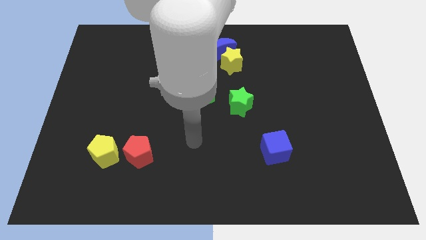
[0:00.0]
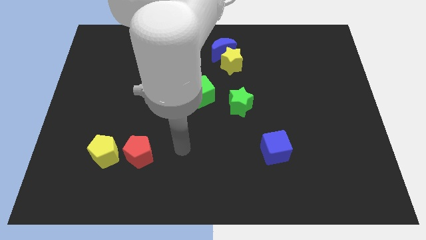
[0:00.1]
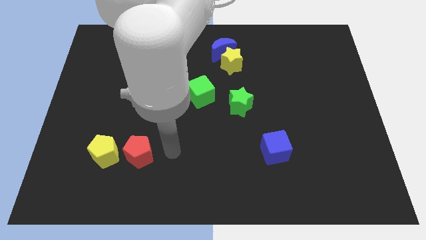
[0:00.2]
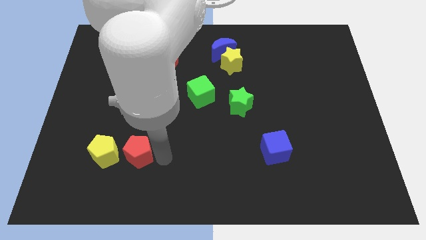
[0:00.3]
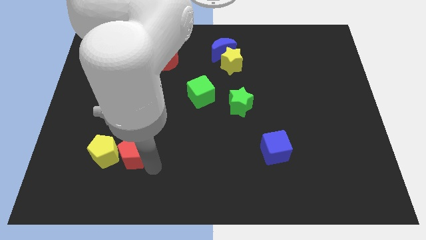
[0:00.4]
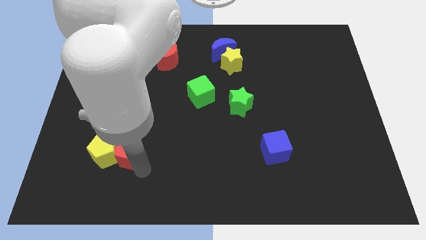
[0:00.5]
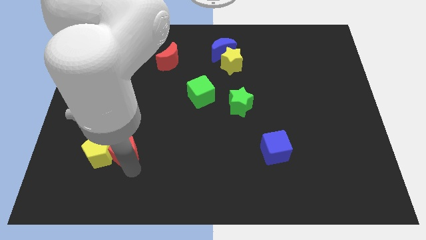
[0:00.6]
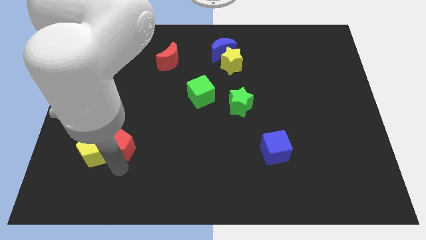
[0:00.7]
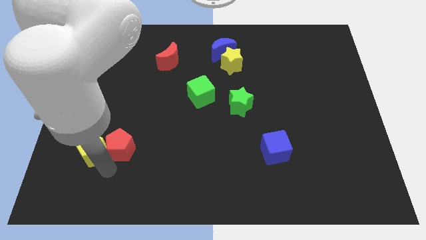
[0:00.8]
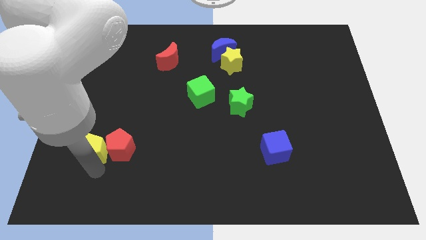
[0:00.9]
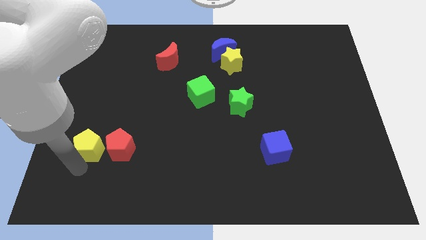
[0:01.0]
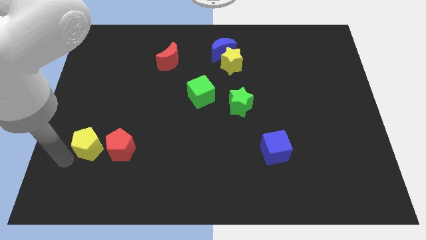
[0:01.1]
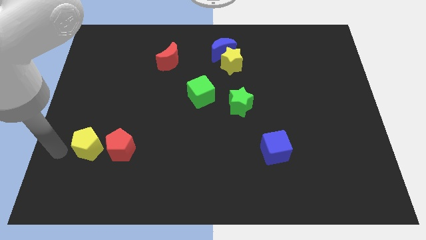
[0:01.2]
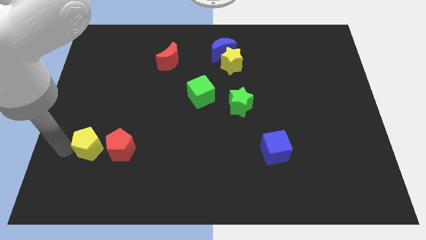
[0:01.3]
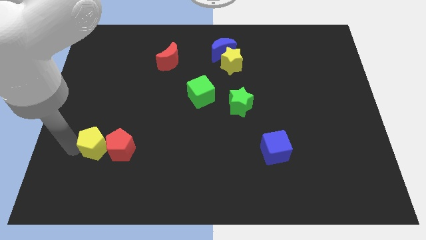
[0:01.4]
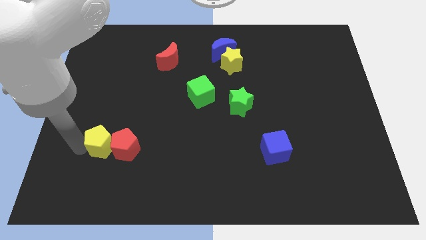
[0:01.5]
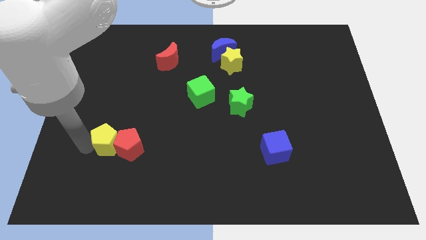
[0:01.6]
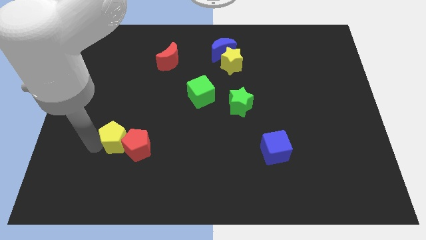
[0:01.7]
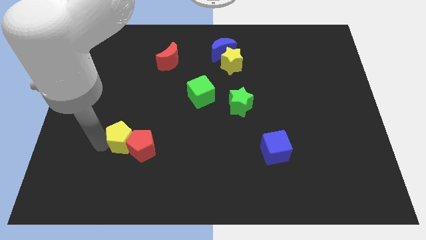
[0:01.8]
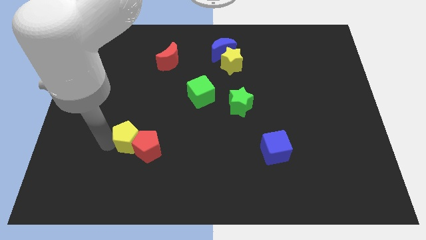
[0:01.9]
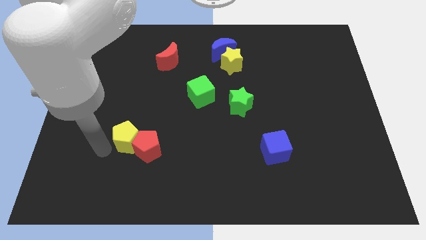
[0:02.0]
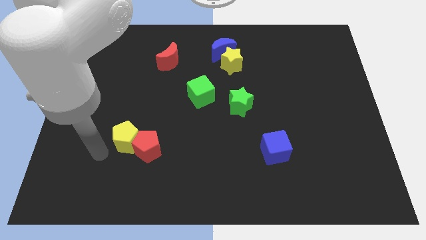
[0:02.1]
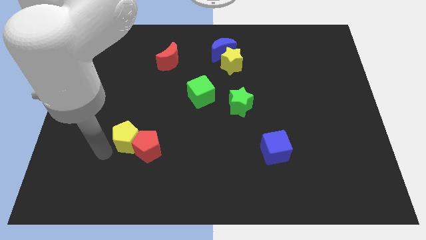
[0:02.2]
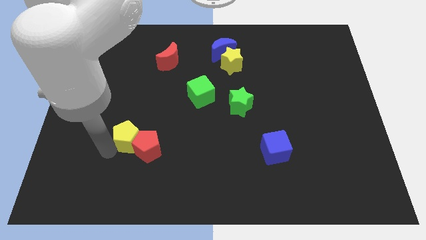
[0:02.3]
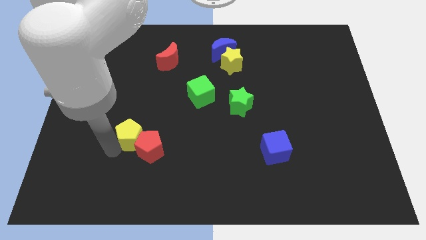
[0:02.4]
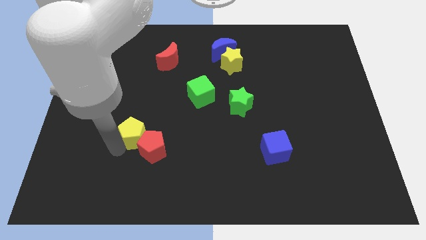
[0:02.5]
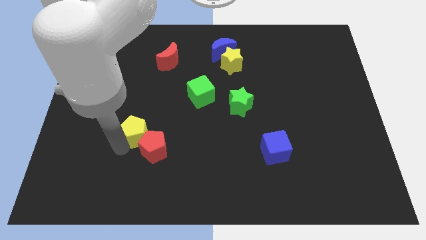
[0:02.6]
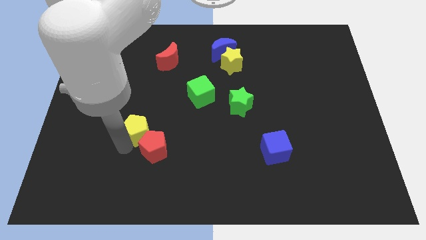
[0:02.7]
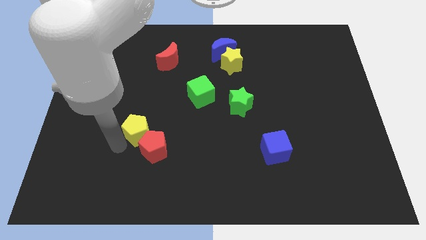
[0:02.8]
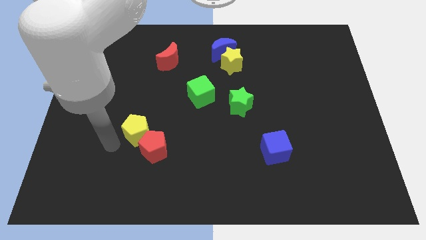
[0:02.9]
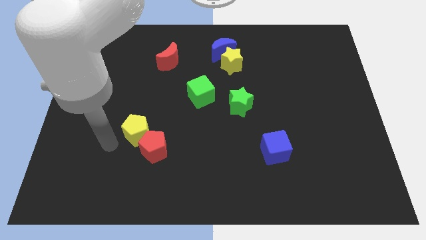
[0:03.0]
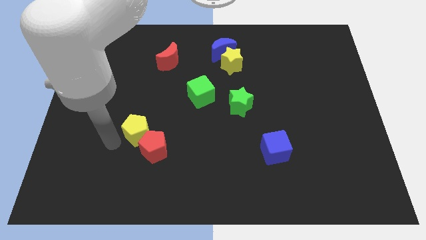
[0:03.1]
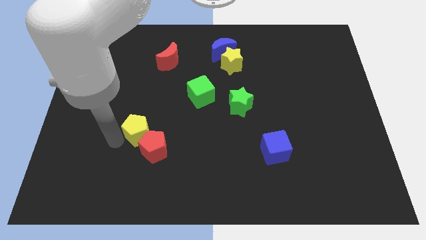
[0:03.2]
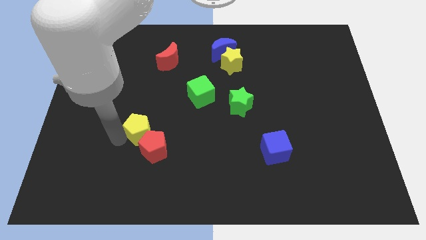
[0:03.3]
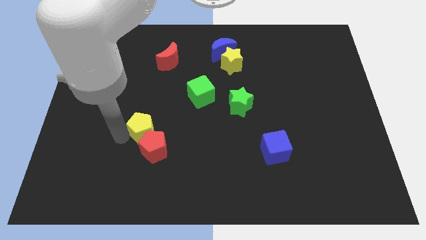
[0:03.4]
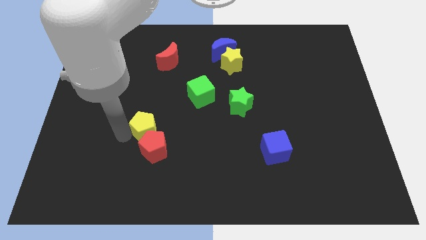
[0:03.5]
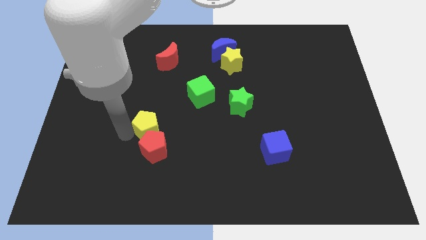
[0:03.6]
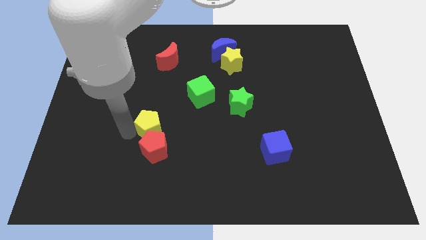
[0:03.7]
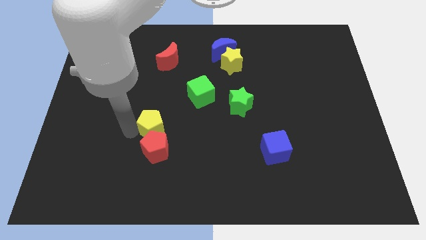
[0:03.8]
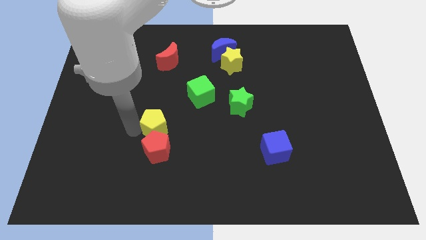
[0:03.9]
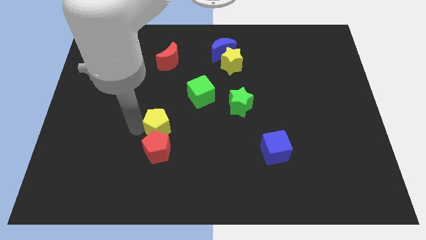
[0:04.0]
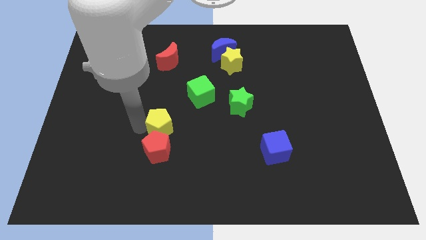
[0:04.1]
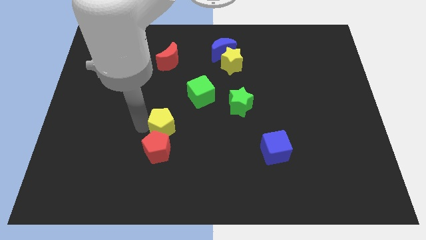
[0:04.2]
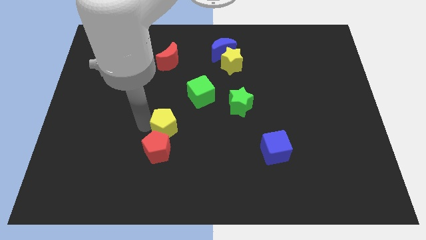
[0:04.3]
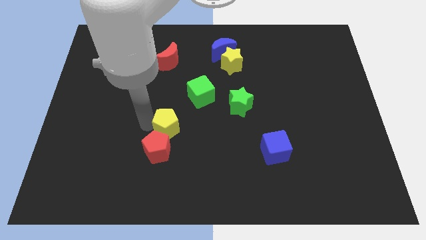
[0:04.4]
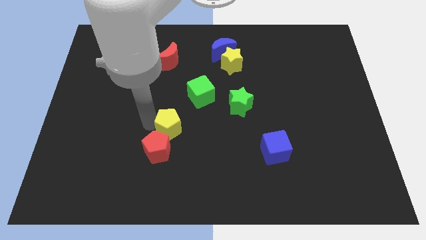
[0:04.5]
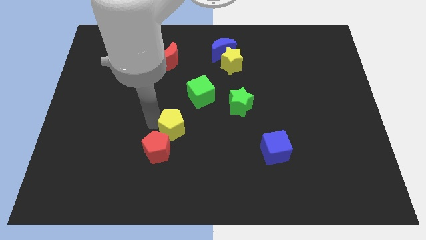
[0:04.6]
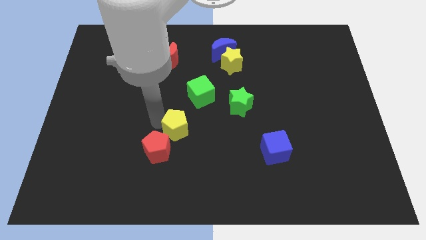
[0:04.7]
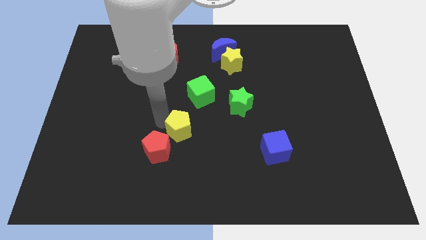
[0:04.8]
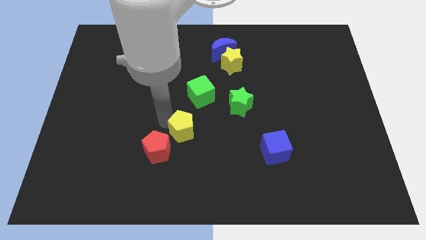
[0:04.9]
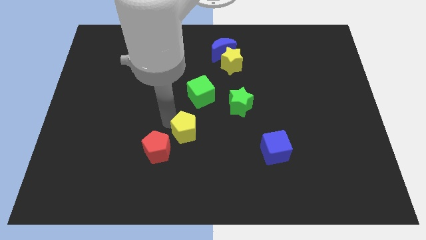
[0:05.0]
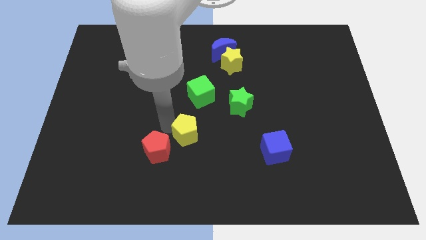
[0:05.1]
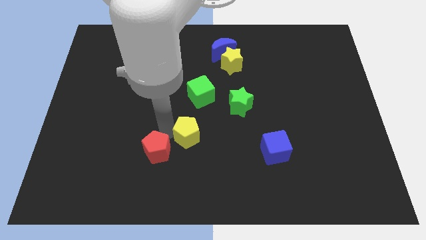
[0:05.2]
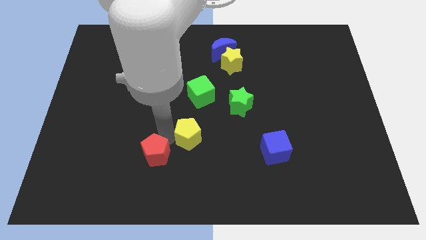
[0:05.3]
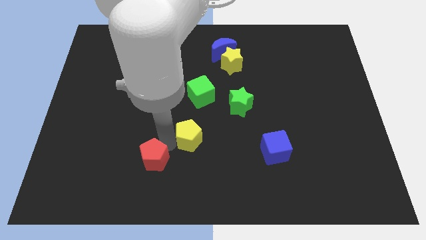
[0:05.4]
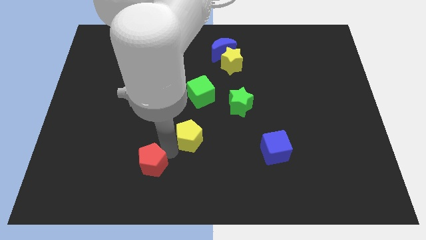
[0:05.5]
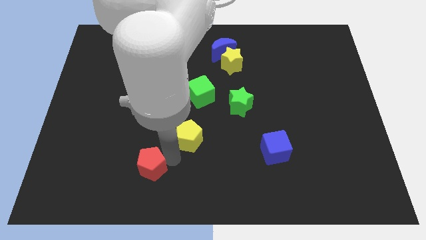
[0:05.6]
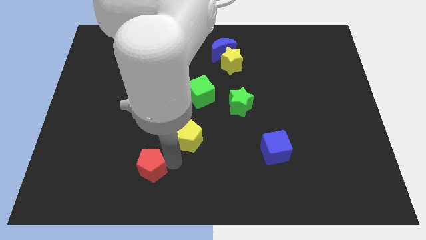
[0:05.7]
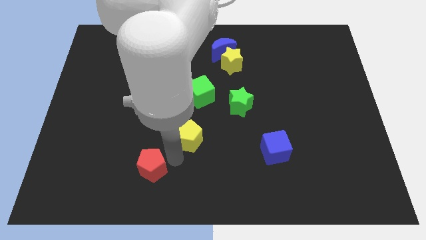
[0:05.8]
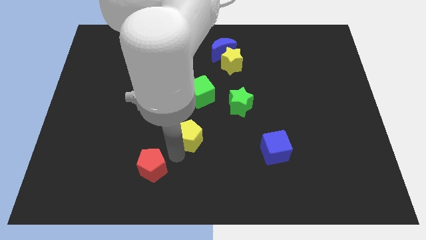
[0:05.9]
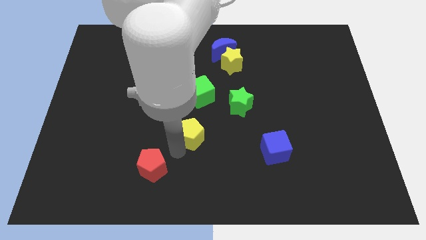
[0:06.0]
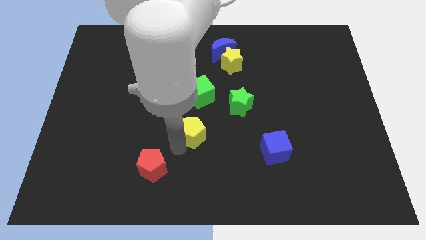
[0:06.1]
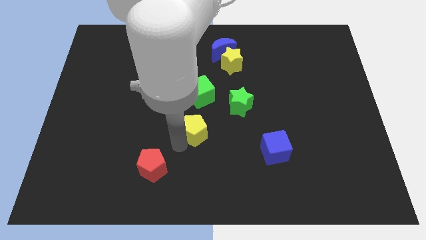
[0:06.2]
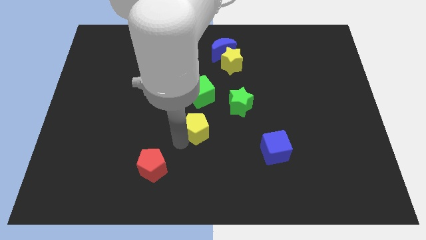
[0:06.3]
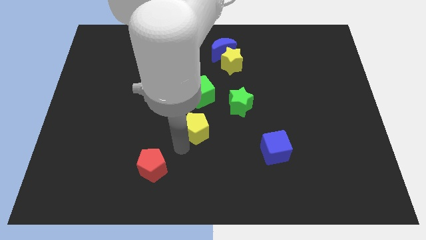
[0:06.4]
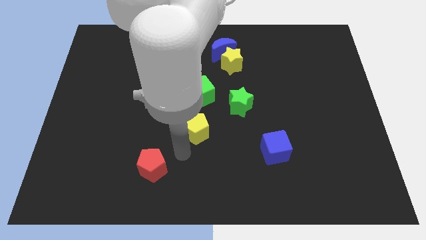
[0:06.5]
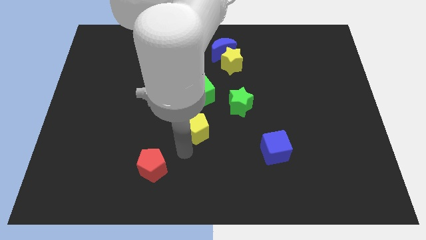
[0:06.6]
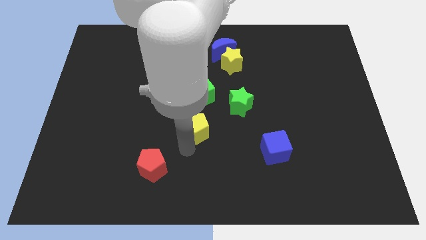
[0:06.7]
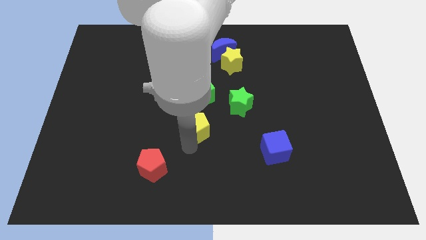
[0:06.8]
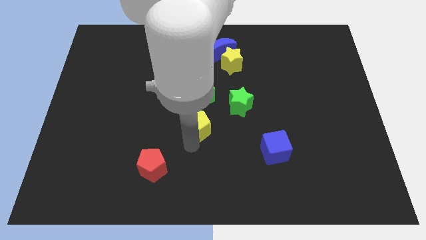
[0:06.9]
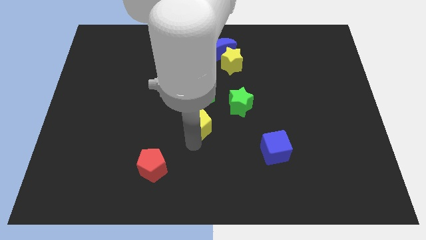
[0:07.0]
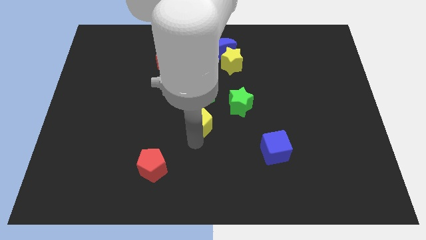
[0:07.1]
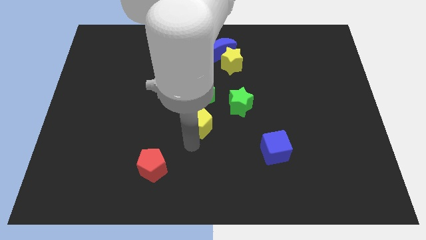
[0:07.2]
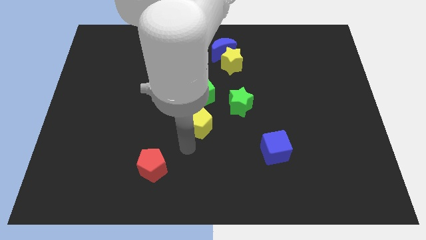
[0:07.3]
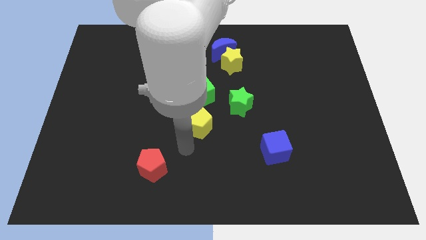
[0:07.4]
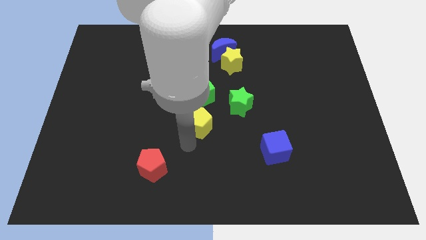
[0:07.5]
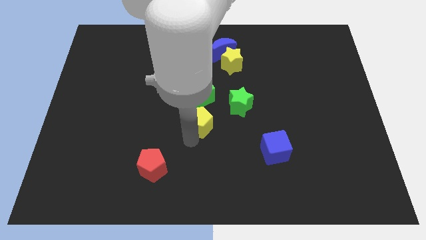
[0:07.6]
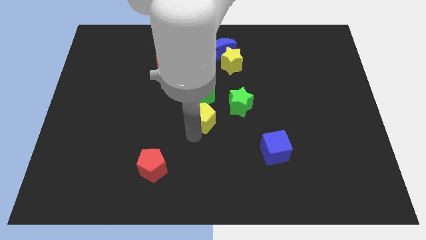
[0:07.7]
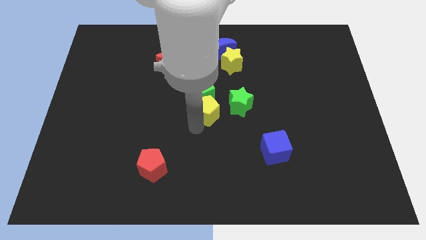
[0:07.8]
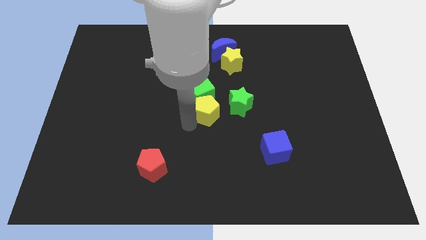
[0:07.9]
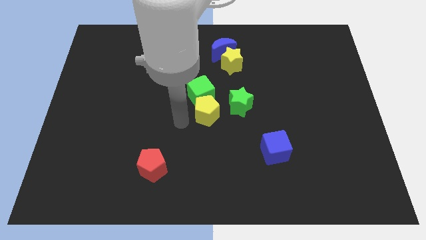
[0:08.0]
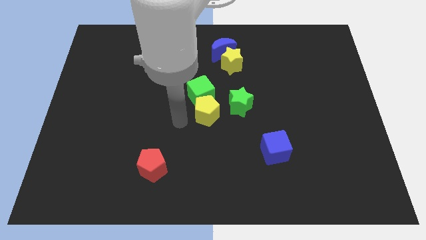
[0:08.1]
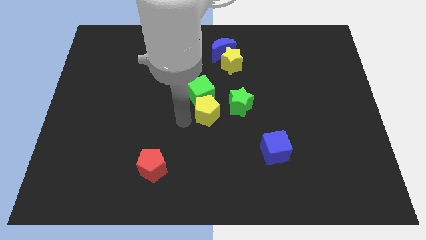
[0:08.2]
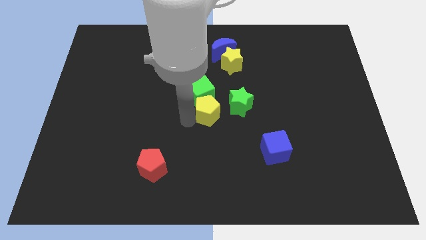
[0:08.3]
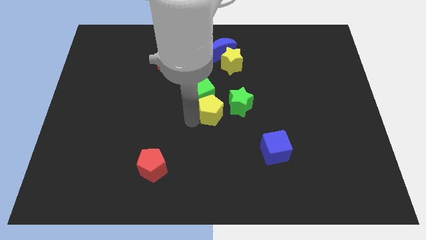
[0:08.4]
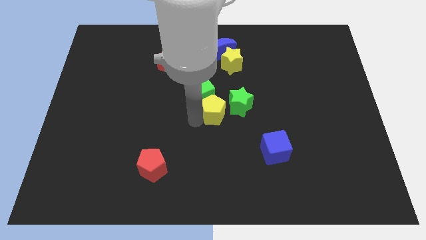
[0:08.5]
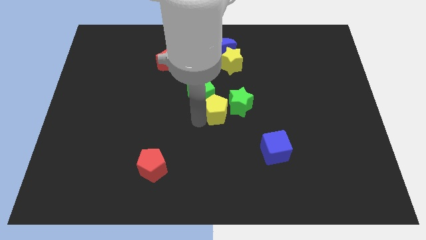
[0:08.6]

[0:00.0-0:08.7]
slide the yellow pentagon to the green star
